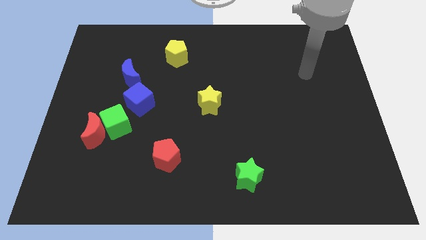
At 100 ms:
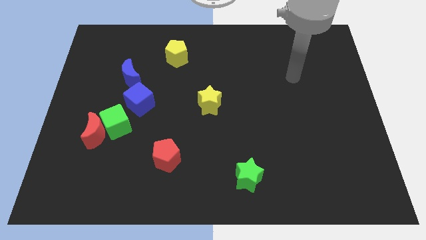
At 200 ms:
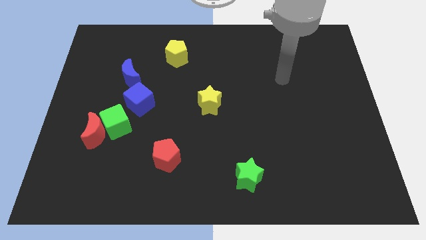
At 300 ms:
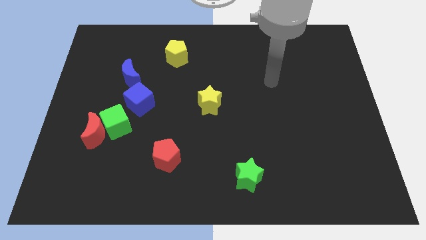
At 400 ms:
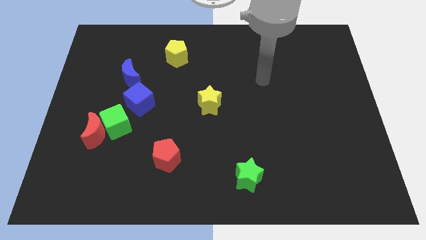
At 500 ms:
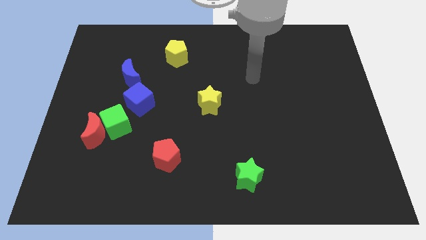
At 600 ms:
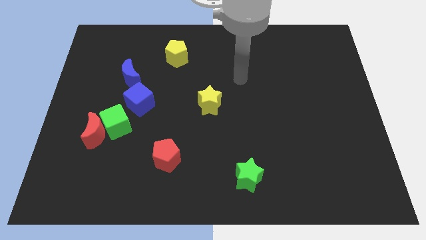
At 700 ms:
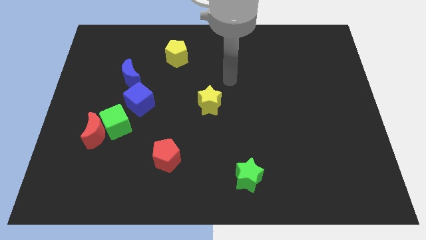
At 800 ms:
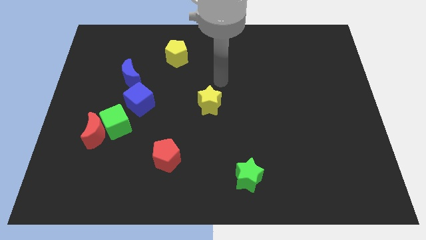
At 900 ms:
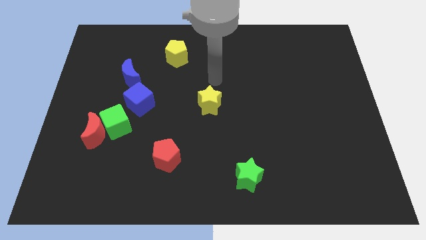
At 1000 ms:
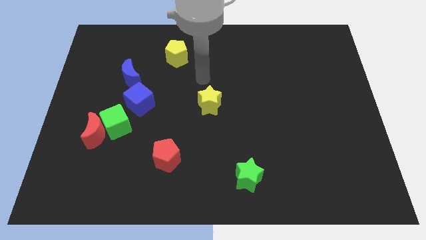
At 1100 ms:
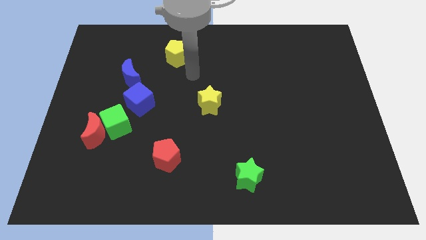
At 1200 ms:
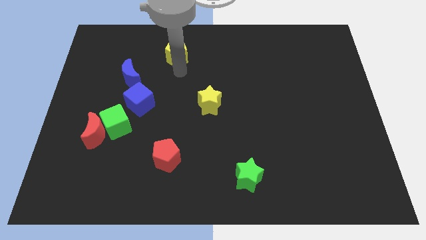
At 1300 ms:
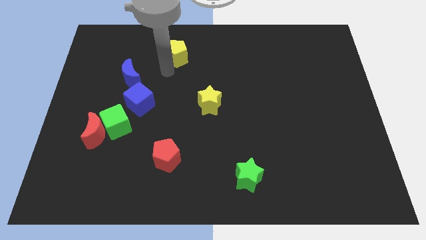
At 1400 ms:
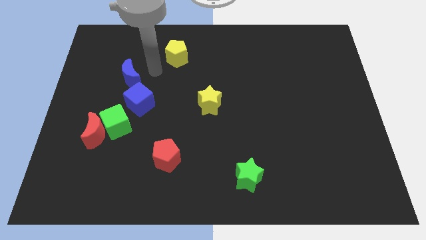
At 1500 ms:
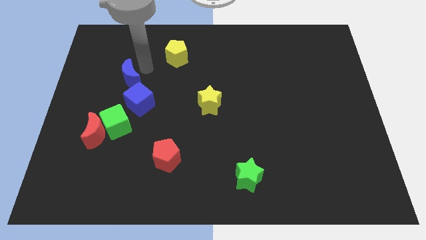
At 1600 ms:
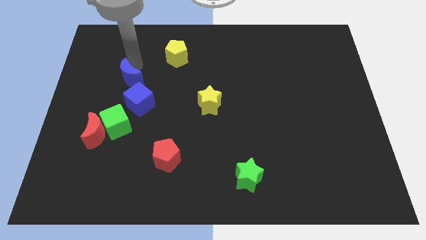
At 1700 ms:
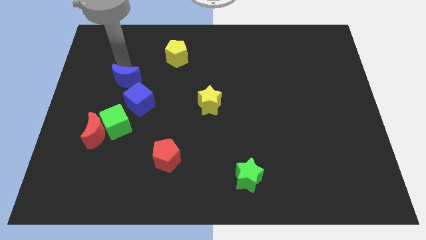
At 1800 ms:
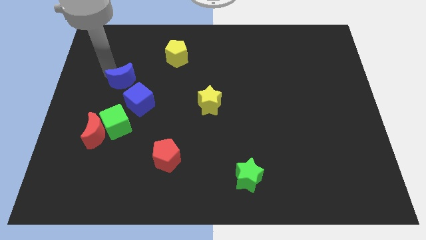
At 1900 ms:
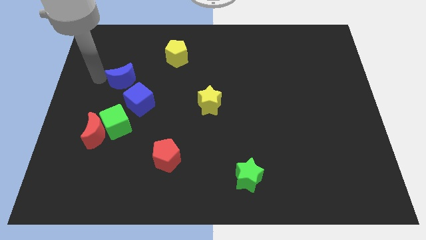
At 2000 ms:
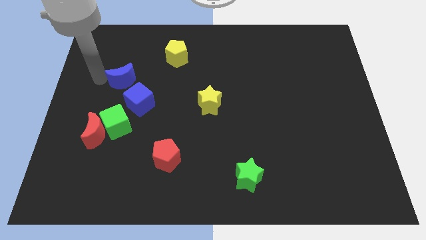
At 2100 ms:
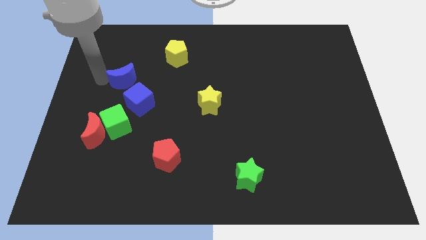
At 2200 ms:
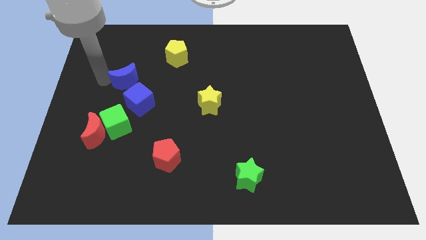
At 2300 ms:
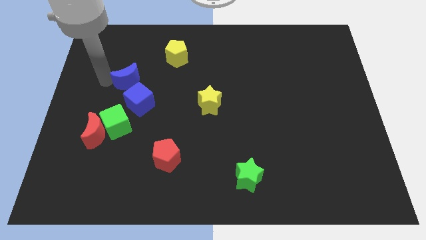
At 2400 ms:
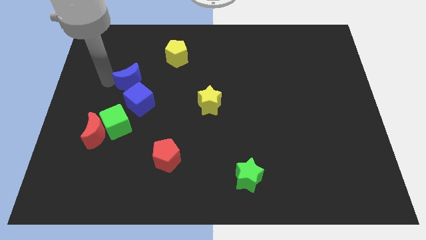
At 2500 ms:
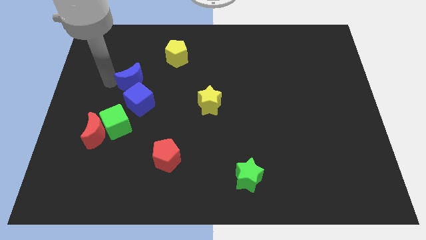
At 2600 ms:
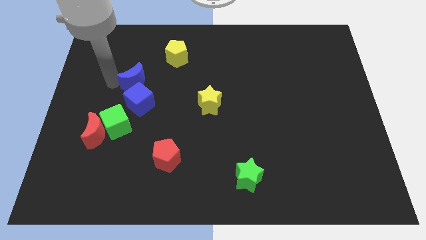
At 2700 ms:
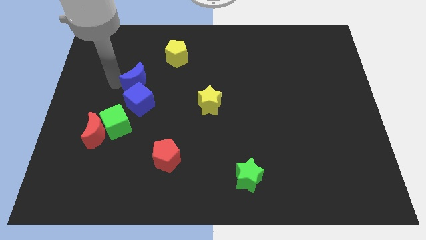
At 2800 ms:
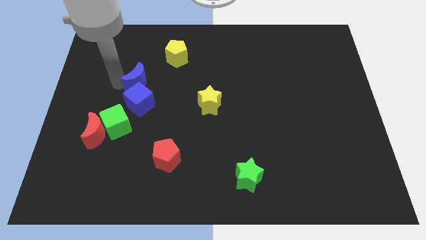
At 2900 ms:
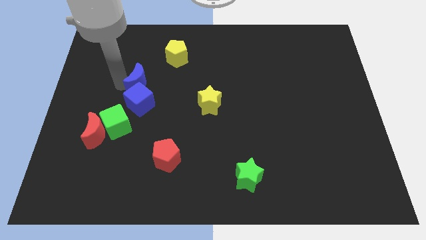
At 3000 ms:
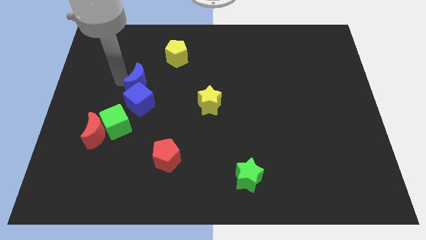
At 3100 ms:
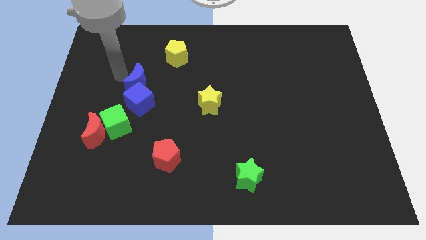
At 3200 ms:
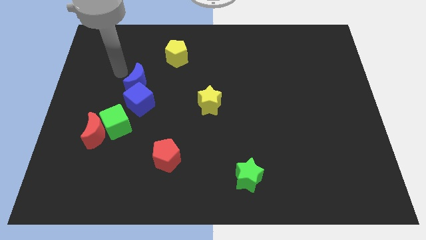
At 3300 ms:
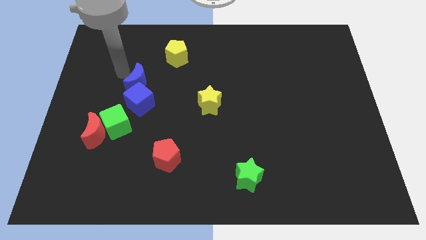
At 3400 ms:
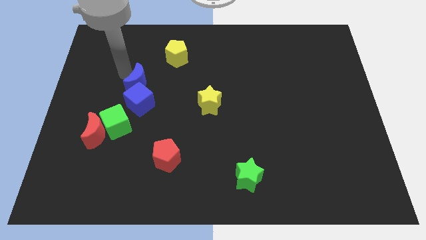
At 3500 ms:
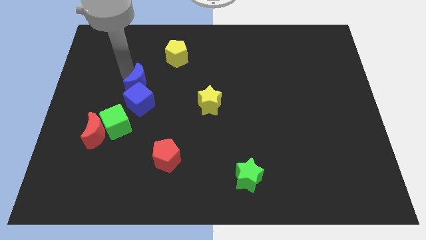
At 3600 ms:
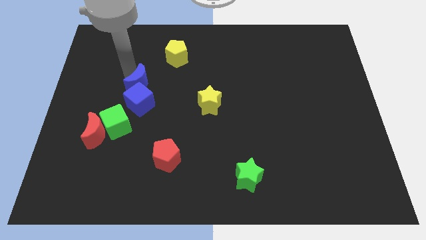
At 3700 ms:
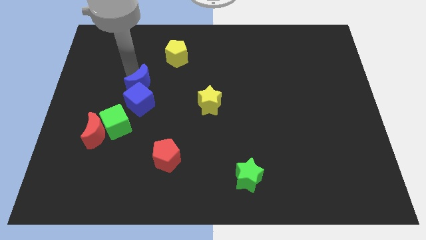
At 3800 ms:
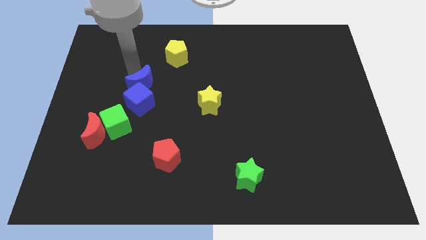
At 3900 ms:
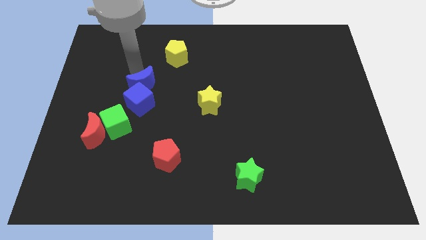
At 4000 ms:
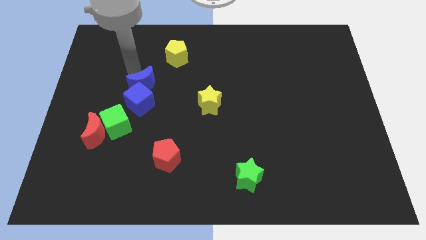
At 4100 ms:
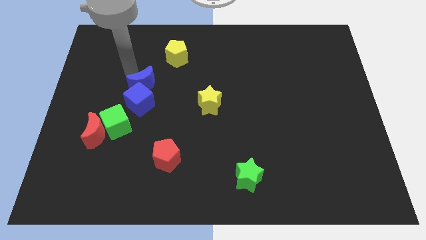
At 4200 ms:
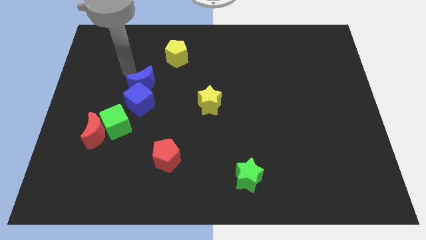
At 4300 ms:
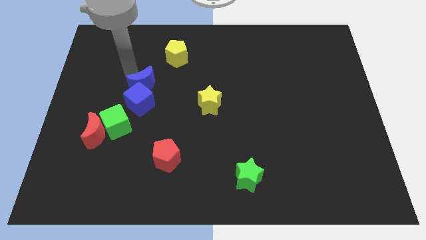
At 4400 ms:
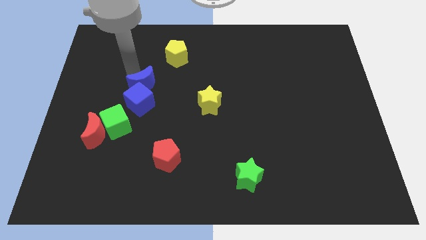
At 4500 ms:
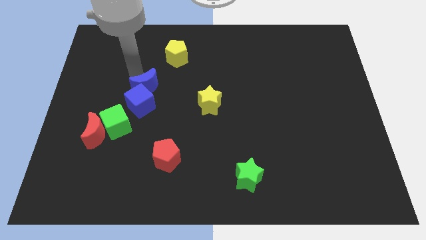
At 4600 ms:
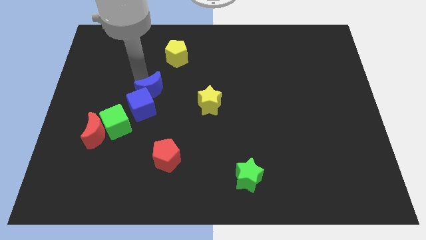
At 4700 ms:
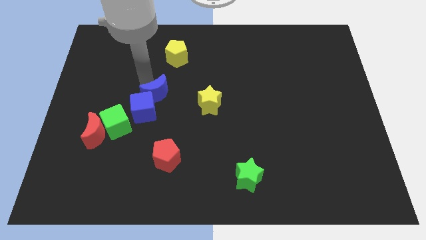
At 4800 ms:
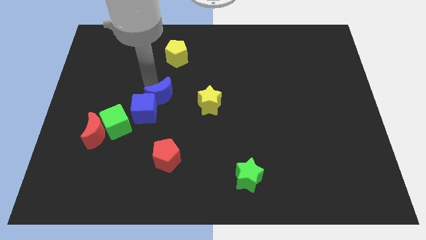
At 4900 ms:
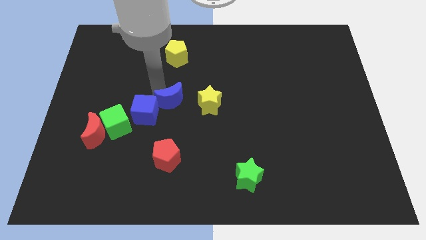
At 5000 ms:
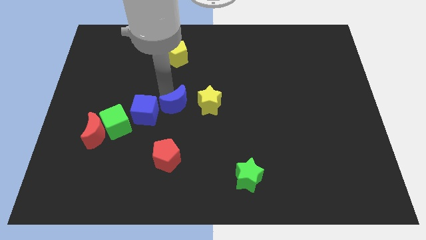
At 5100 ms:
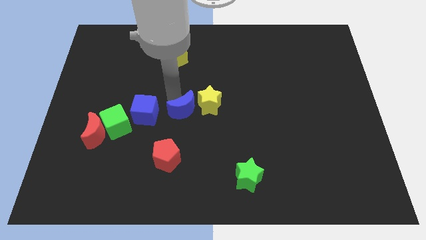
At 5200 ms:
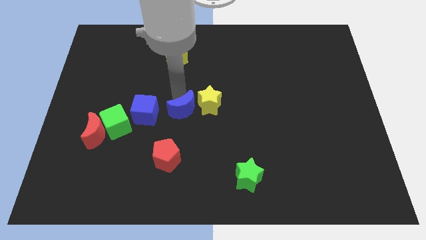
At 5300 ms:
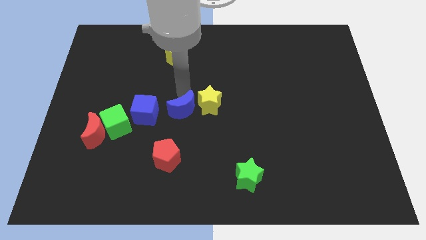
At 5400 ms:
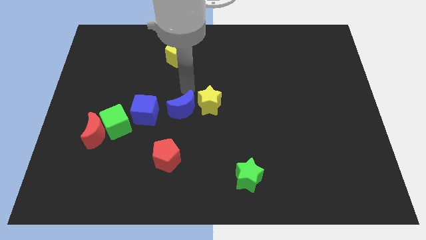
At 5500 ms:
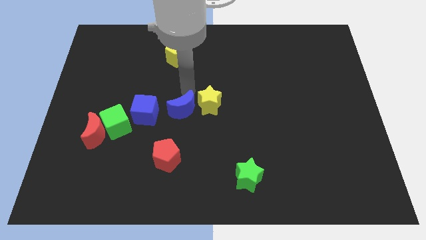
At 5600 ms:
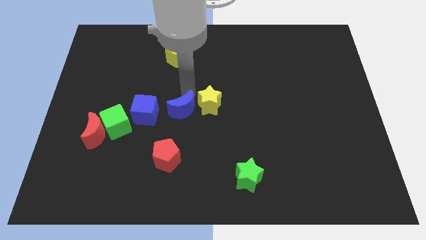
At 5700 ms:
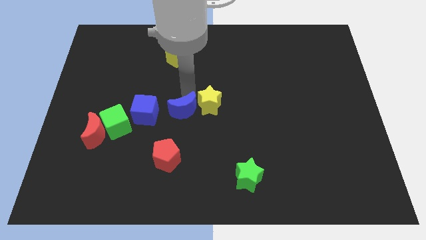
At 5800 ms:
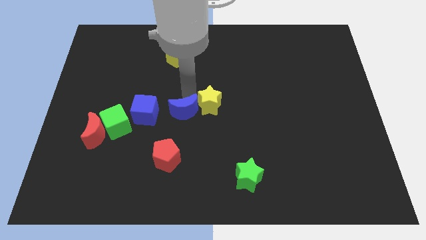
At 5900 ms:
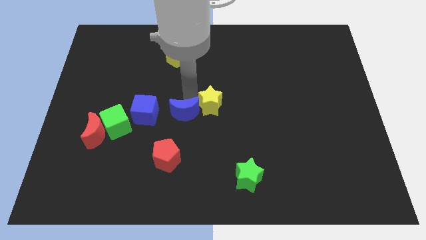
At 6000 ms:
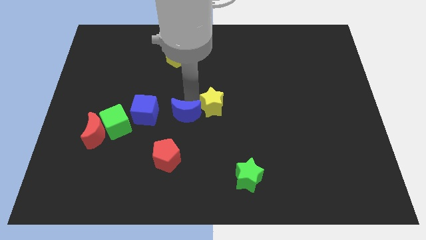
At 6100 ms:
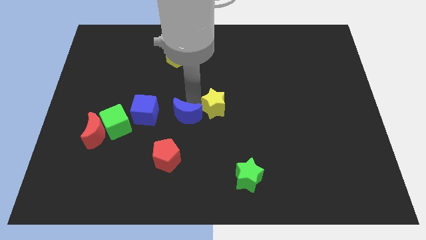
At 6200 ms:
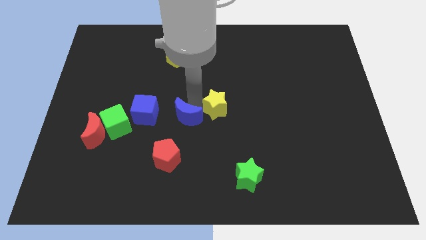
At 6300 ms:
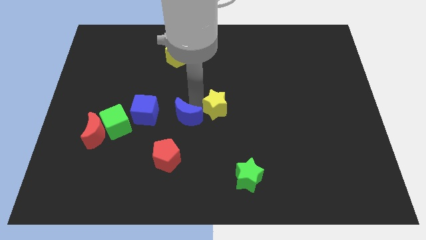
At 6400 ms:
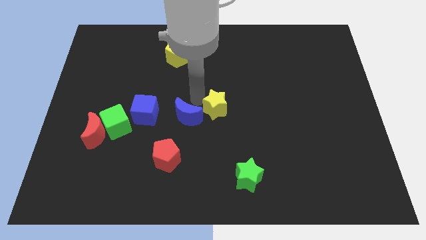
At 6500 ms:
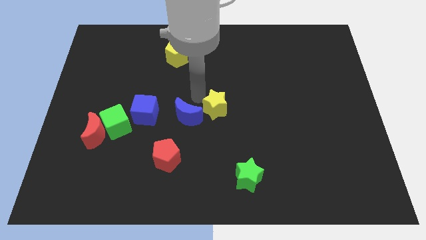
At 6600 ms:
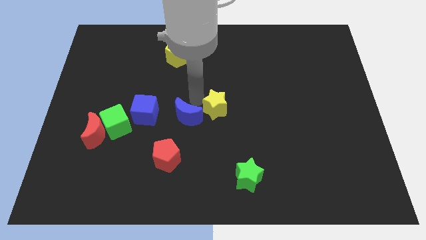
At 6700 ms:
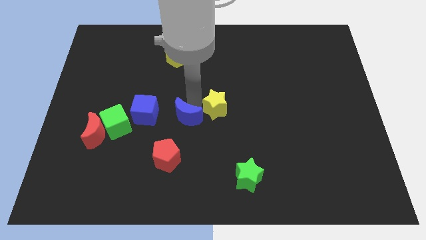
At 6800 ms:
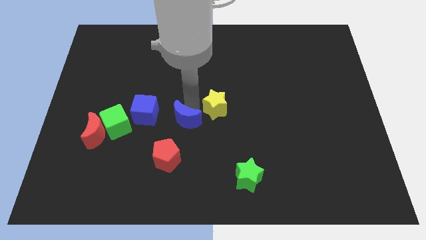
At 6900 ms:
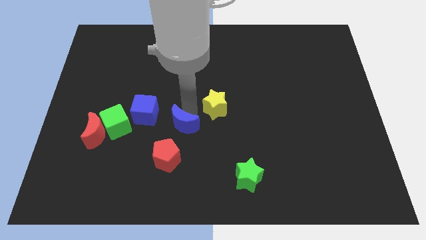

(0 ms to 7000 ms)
push the blue moon downwards and right diagonally

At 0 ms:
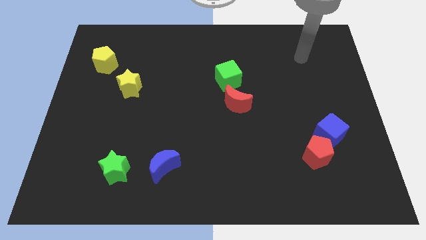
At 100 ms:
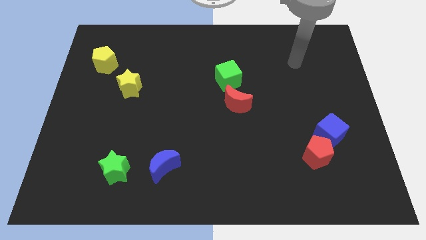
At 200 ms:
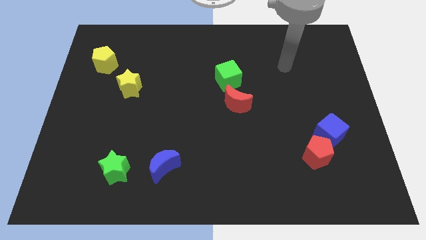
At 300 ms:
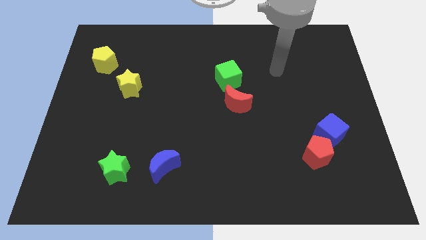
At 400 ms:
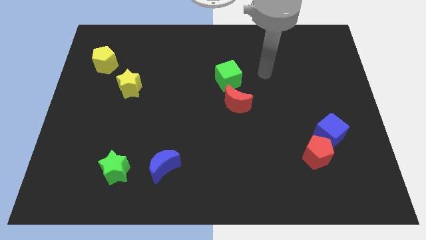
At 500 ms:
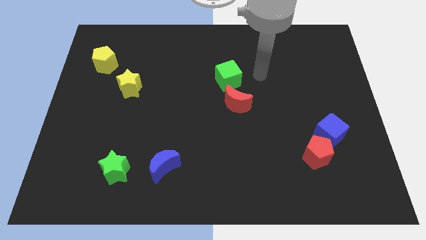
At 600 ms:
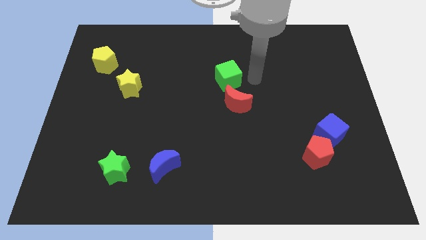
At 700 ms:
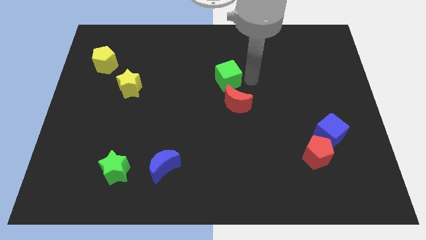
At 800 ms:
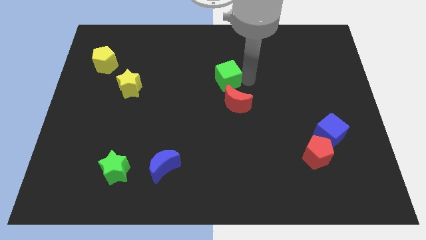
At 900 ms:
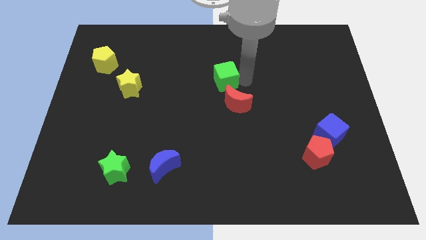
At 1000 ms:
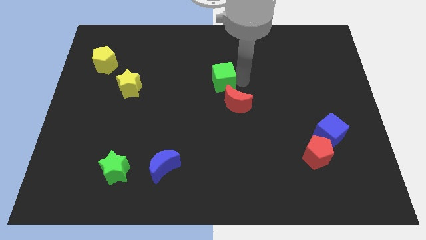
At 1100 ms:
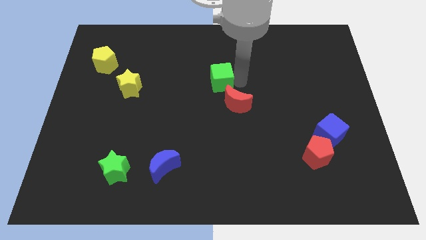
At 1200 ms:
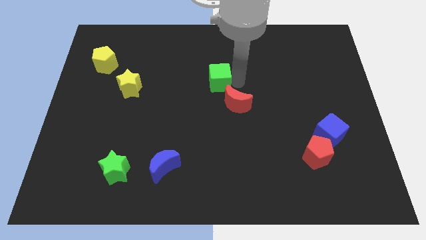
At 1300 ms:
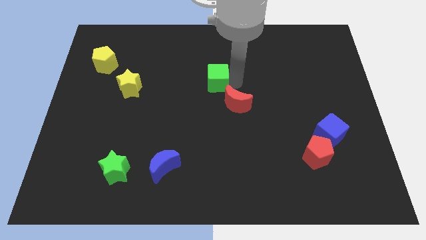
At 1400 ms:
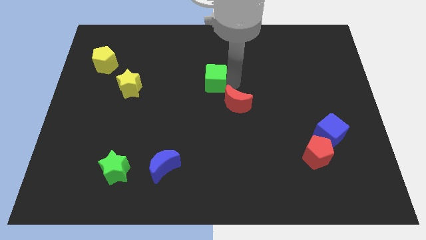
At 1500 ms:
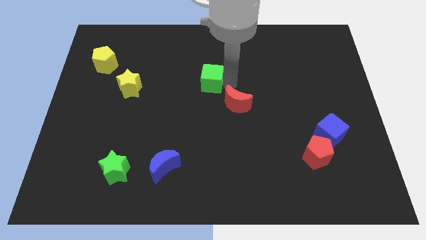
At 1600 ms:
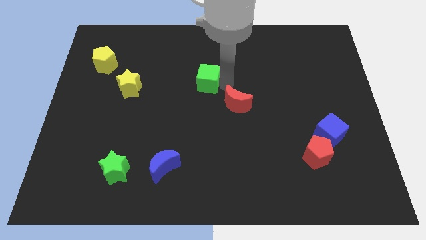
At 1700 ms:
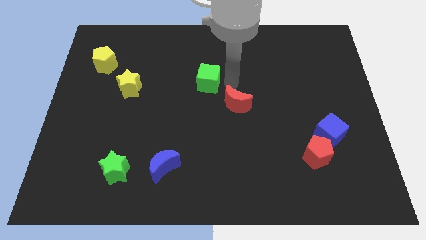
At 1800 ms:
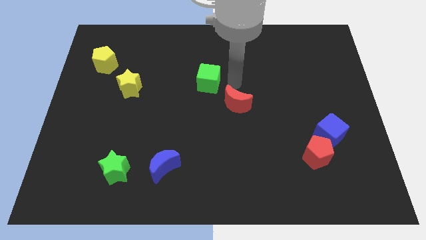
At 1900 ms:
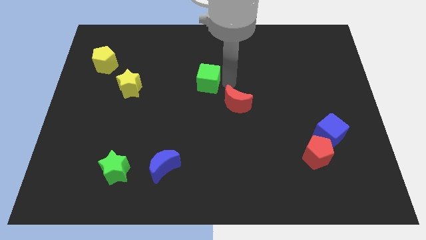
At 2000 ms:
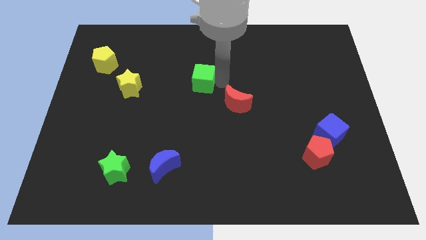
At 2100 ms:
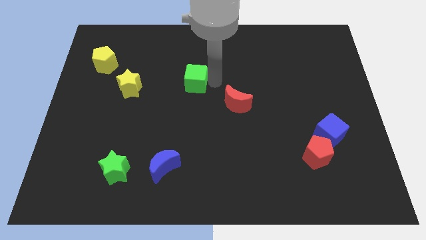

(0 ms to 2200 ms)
push the green cube to the left a little
